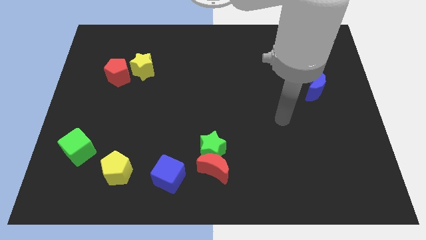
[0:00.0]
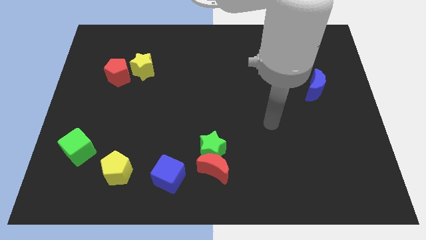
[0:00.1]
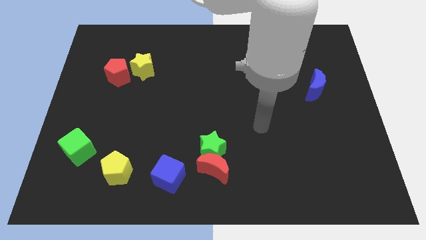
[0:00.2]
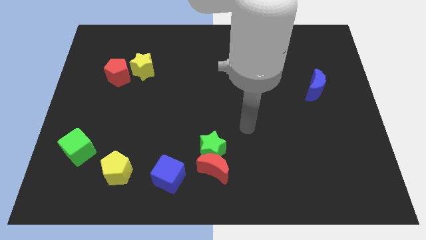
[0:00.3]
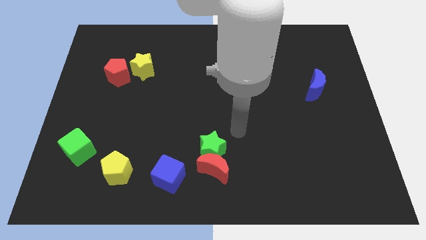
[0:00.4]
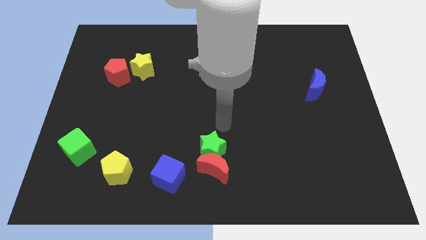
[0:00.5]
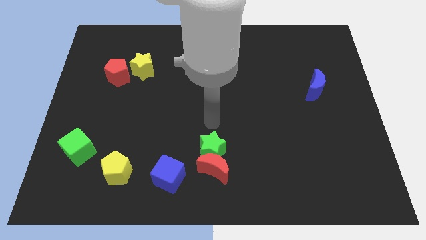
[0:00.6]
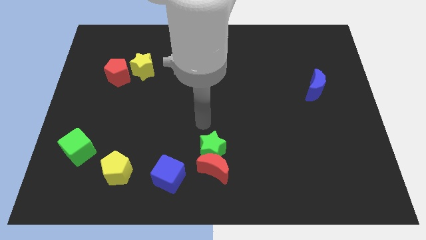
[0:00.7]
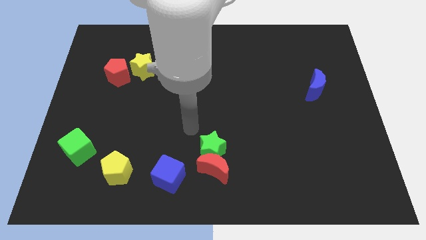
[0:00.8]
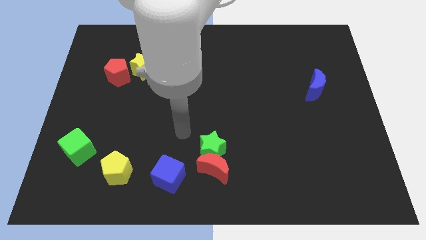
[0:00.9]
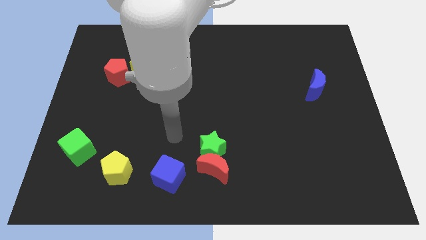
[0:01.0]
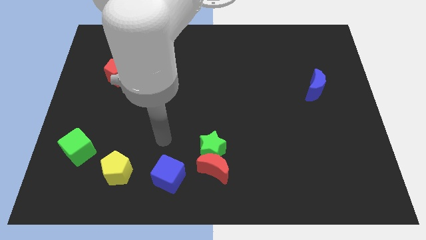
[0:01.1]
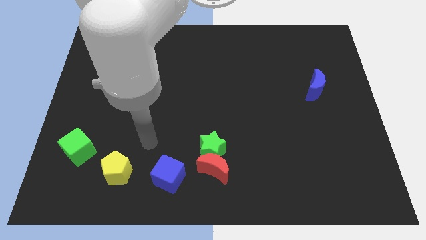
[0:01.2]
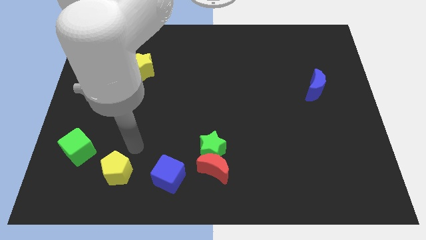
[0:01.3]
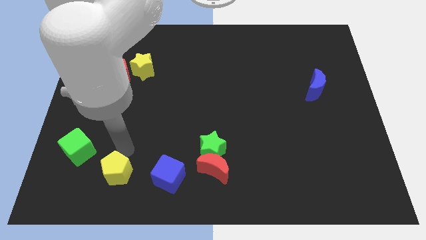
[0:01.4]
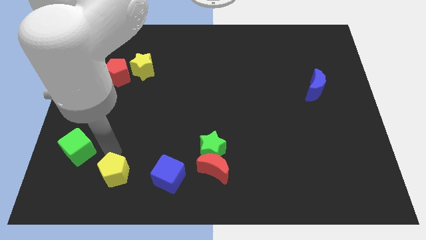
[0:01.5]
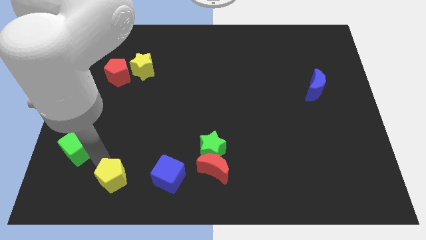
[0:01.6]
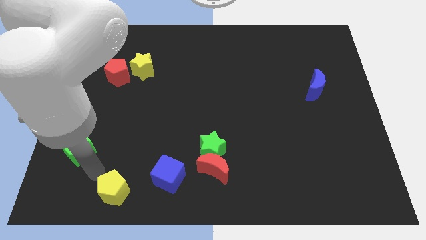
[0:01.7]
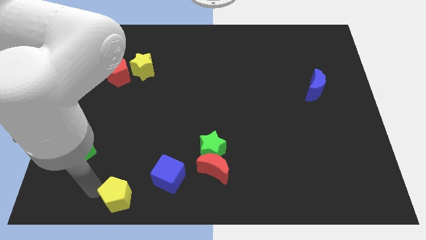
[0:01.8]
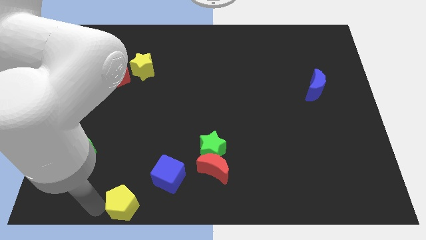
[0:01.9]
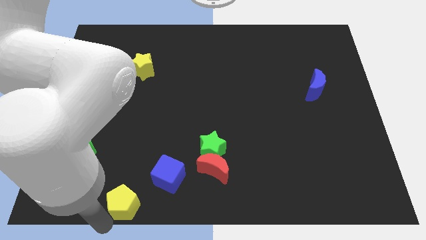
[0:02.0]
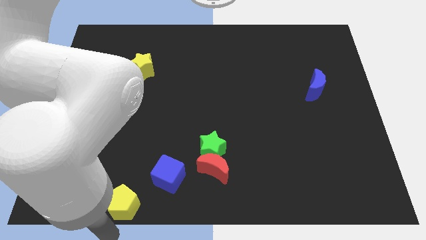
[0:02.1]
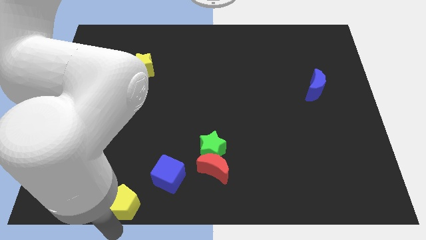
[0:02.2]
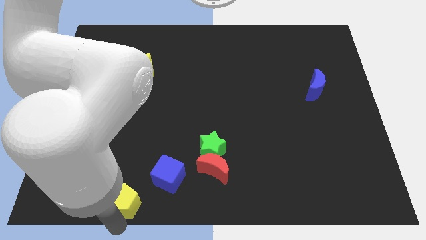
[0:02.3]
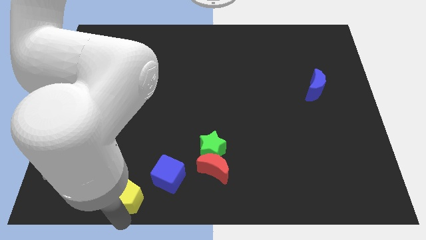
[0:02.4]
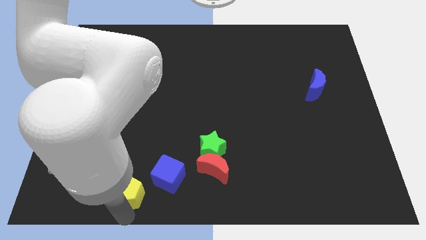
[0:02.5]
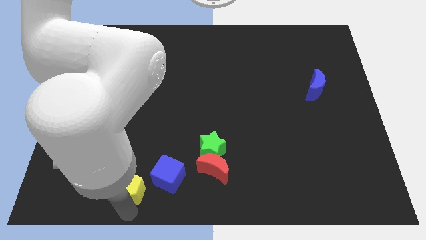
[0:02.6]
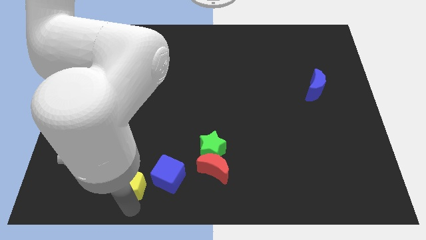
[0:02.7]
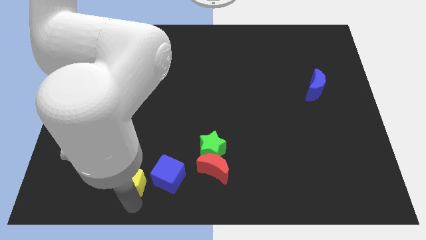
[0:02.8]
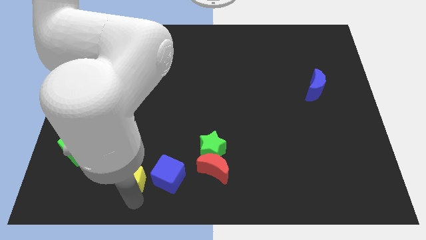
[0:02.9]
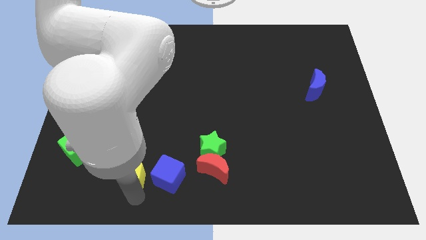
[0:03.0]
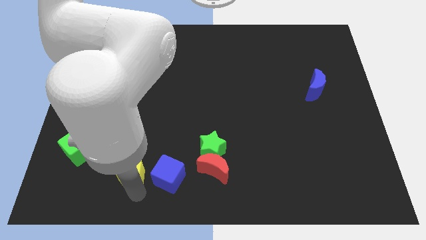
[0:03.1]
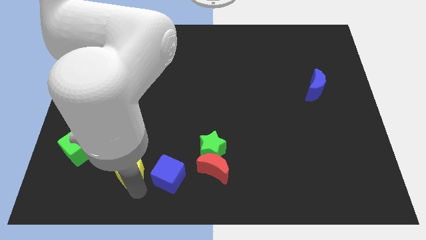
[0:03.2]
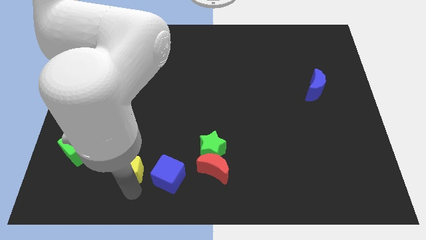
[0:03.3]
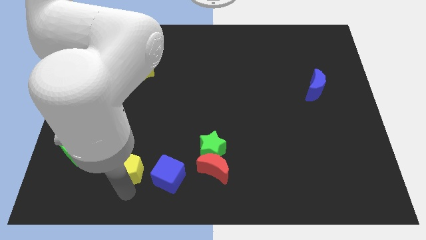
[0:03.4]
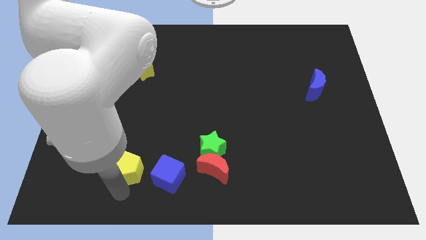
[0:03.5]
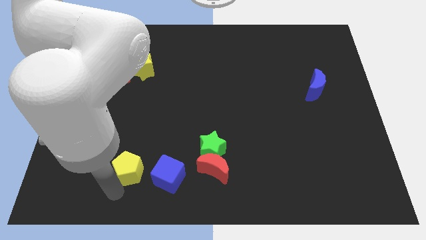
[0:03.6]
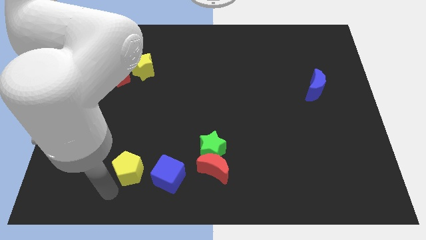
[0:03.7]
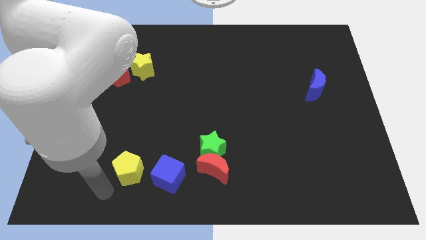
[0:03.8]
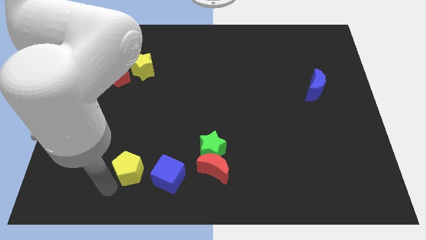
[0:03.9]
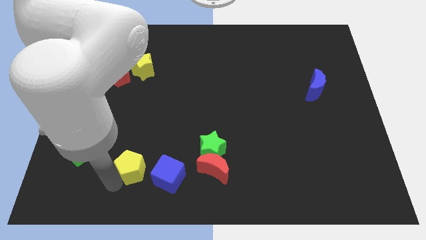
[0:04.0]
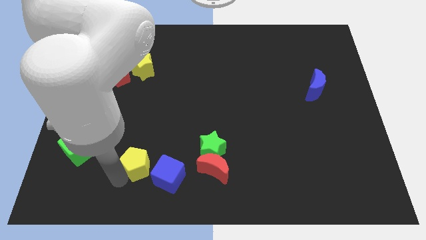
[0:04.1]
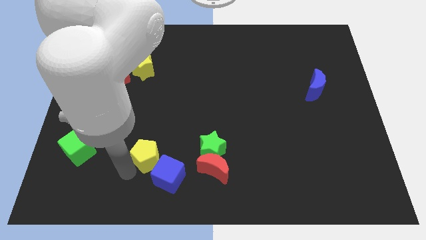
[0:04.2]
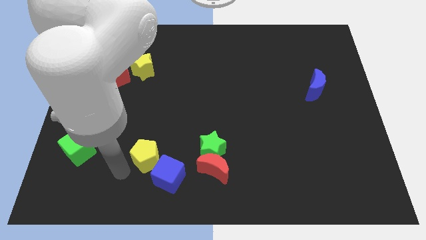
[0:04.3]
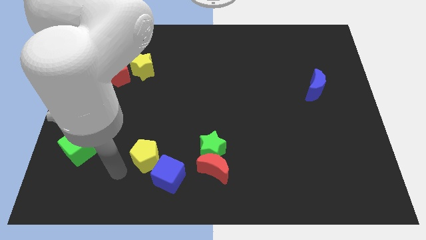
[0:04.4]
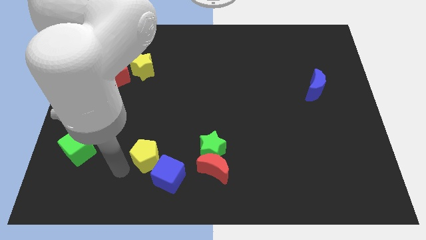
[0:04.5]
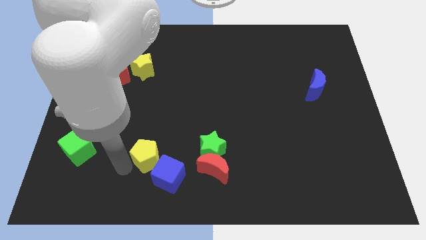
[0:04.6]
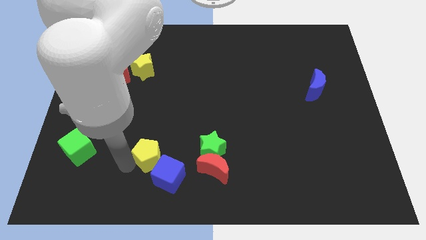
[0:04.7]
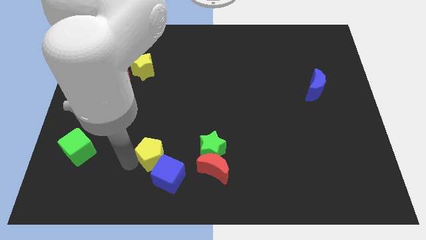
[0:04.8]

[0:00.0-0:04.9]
move the yellow pentagon a bit up and right

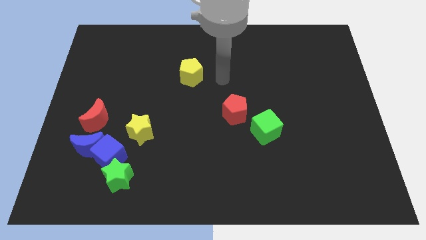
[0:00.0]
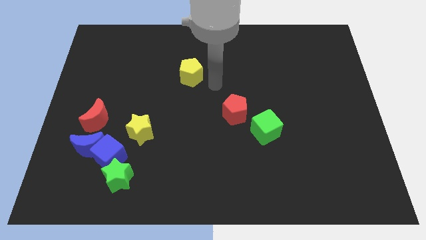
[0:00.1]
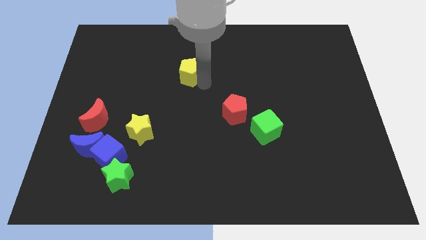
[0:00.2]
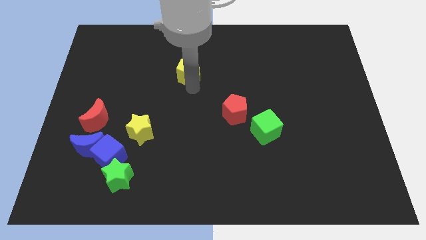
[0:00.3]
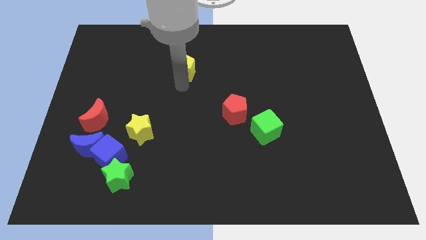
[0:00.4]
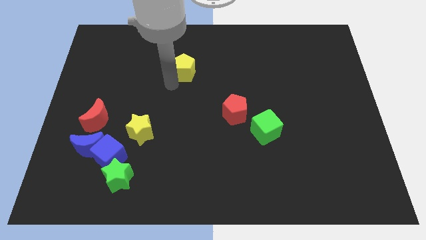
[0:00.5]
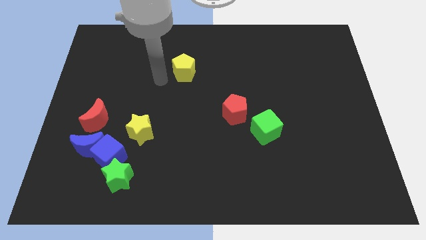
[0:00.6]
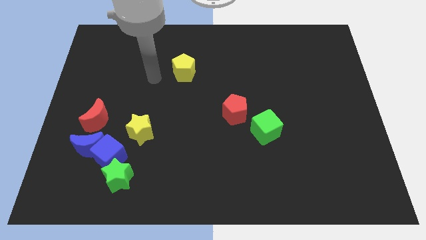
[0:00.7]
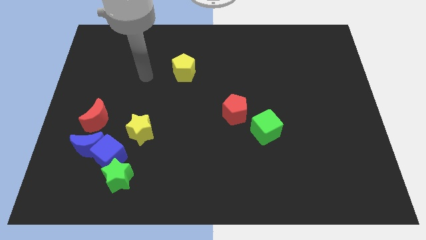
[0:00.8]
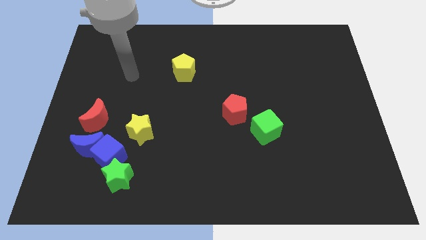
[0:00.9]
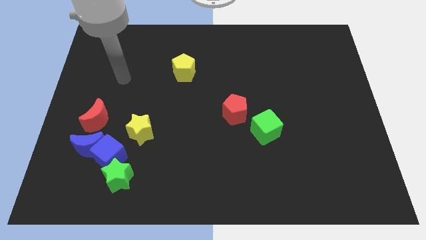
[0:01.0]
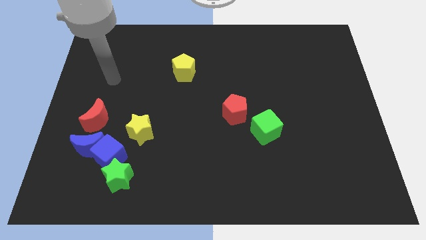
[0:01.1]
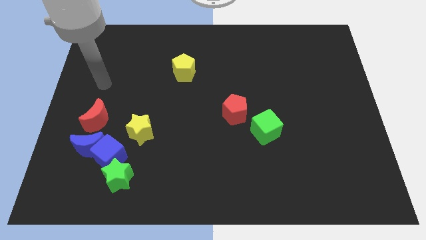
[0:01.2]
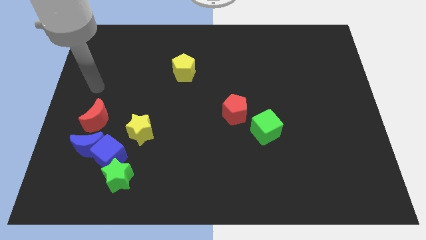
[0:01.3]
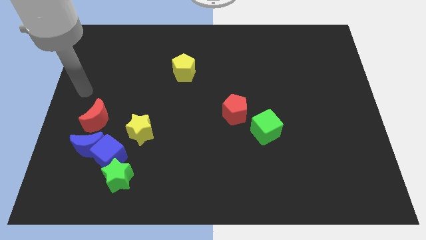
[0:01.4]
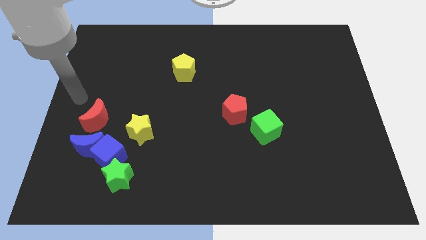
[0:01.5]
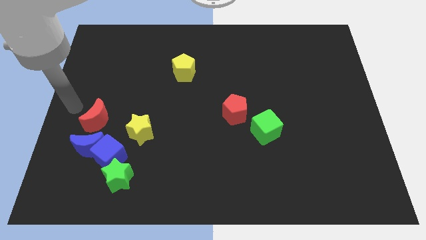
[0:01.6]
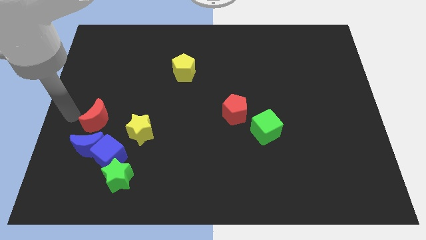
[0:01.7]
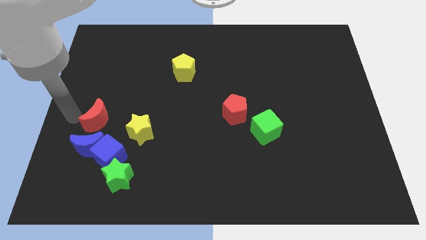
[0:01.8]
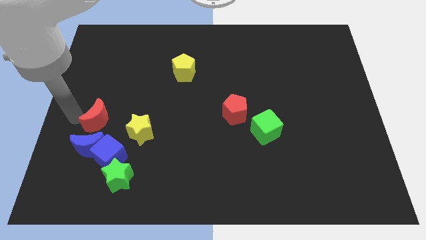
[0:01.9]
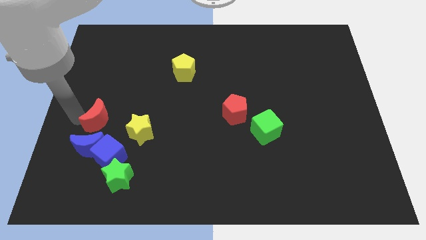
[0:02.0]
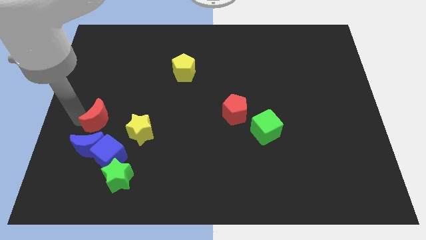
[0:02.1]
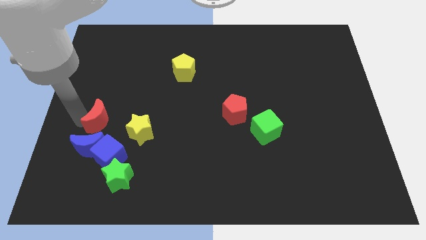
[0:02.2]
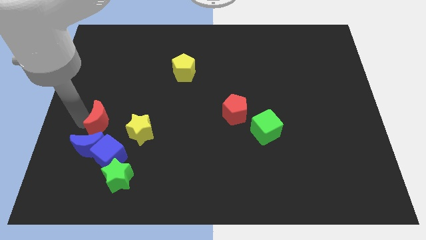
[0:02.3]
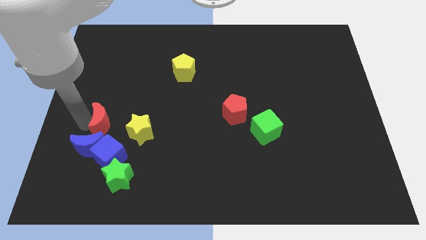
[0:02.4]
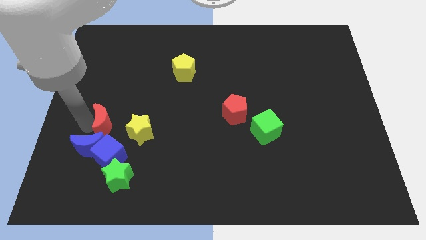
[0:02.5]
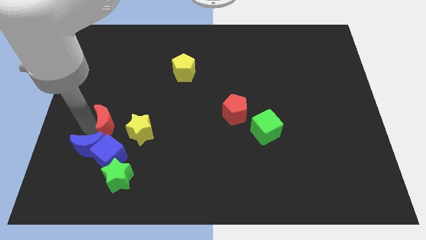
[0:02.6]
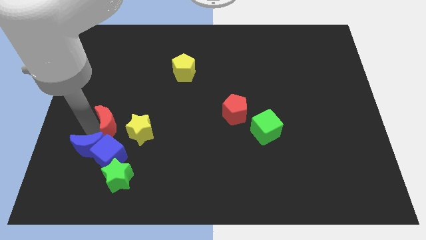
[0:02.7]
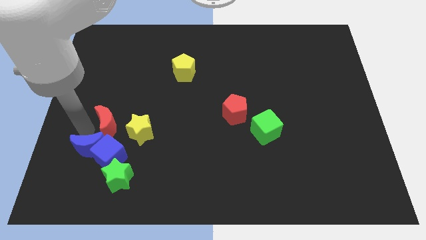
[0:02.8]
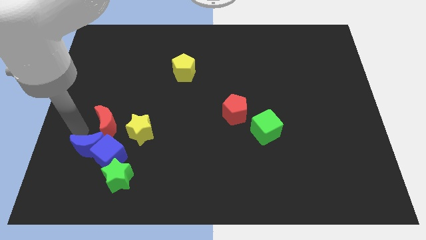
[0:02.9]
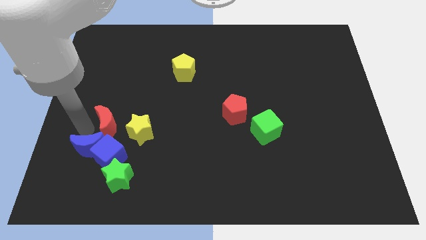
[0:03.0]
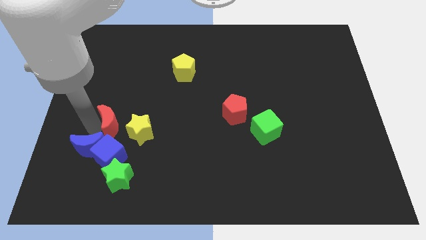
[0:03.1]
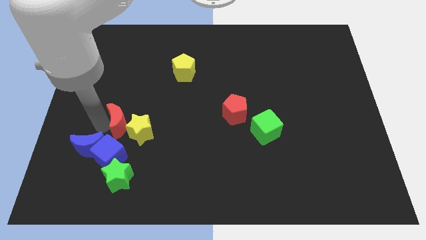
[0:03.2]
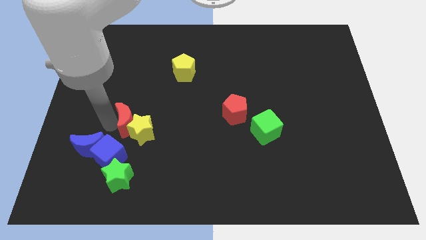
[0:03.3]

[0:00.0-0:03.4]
push the red moon slightly to the right
